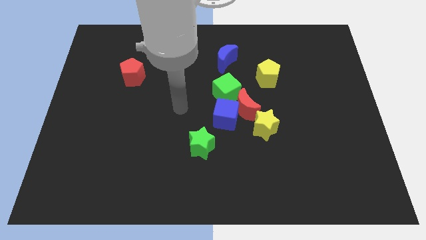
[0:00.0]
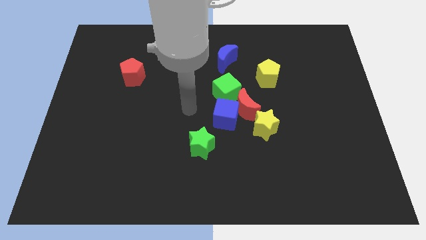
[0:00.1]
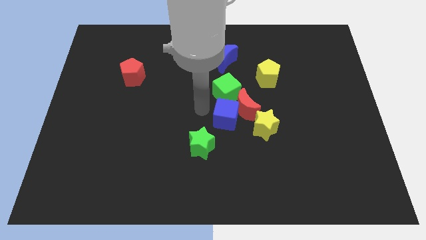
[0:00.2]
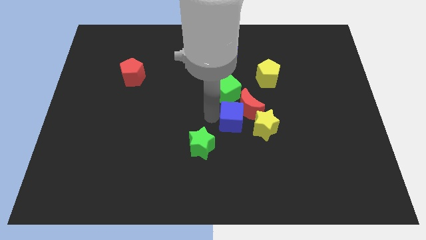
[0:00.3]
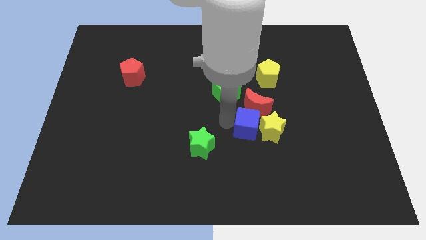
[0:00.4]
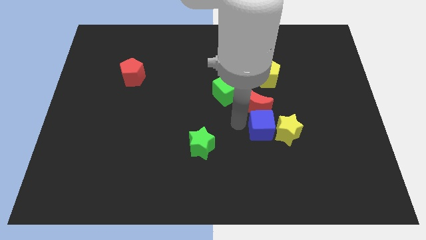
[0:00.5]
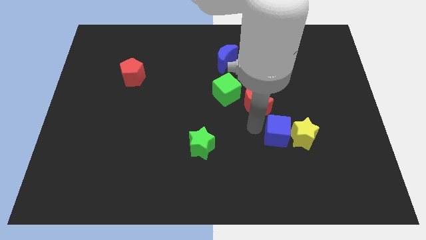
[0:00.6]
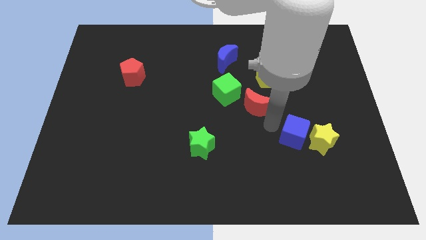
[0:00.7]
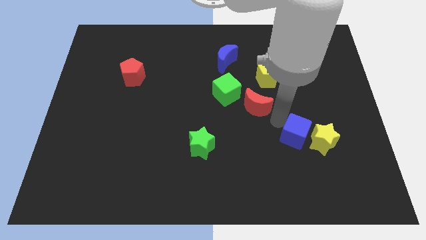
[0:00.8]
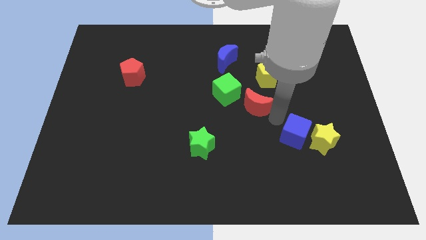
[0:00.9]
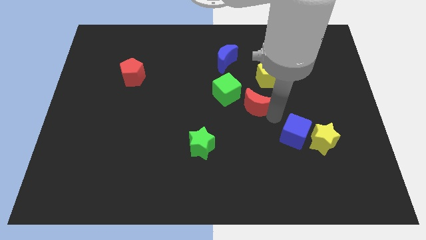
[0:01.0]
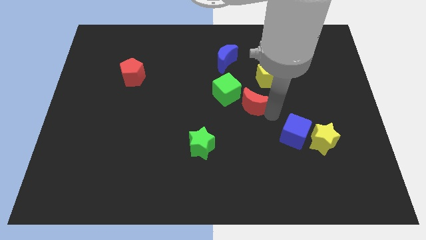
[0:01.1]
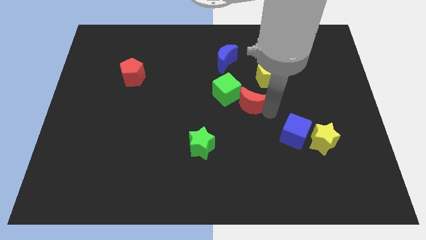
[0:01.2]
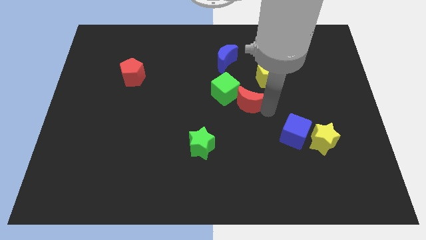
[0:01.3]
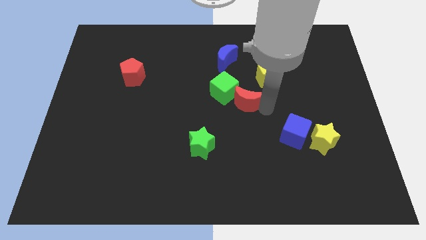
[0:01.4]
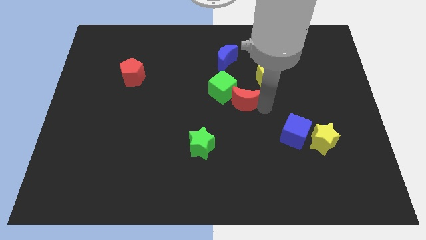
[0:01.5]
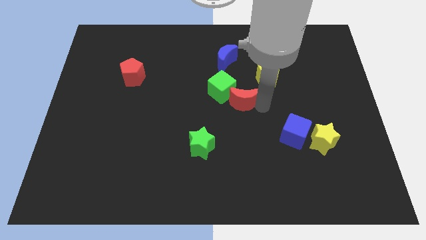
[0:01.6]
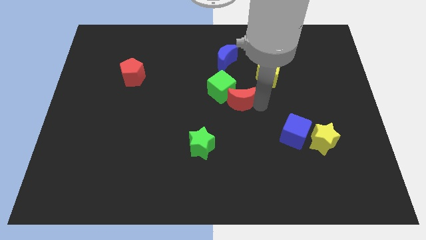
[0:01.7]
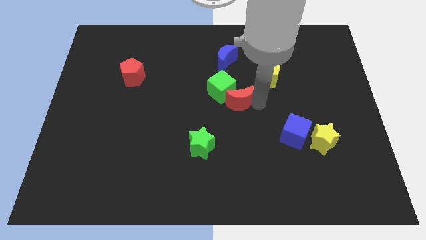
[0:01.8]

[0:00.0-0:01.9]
move the red moon away from the blue cube, green cube, and yellow star

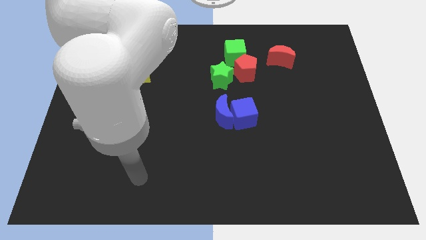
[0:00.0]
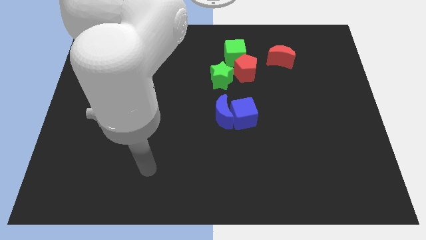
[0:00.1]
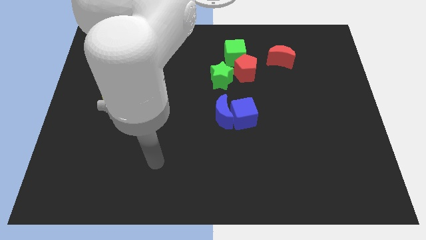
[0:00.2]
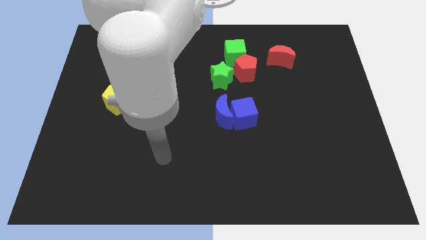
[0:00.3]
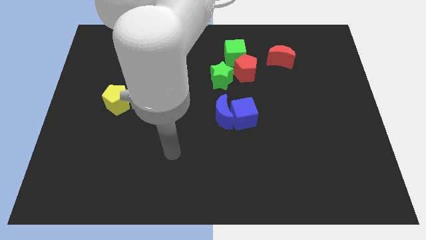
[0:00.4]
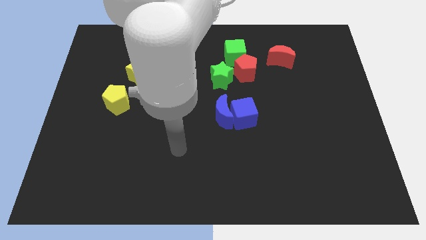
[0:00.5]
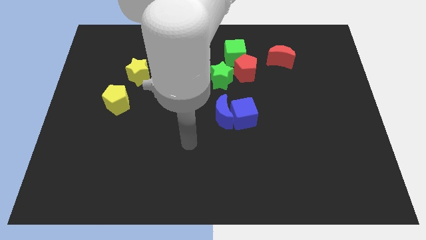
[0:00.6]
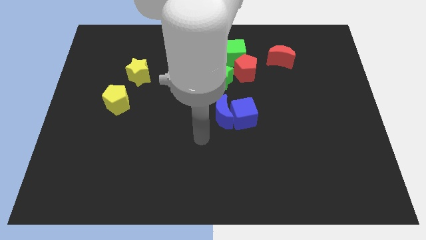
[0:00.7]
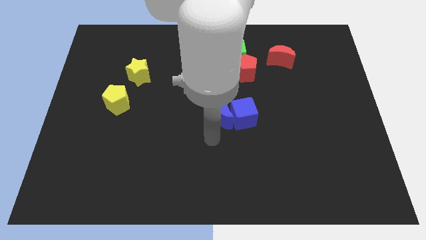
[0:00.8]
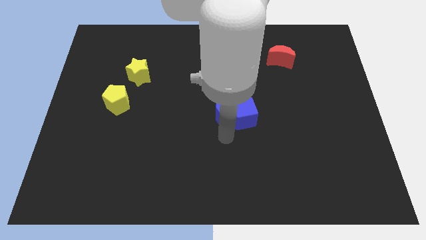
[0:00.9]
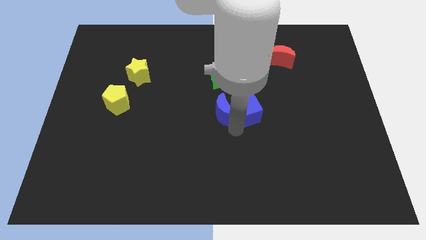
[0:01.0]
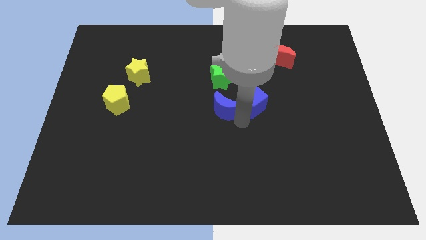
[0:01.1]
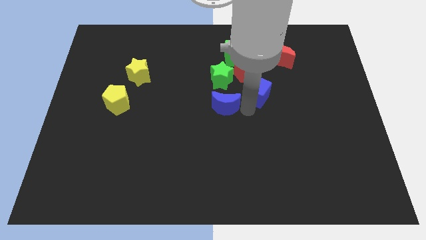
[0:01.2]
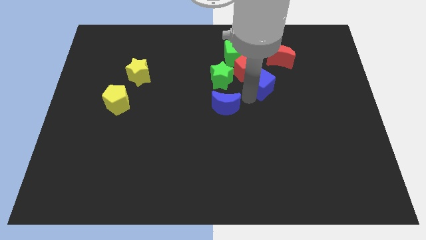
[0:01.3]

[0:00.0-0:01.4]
move the blue moon away from the blue cube

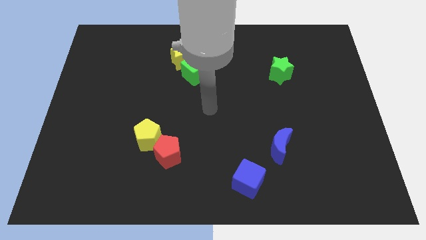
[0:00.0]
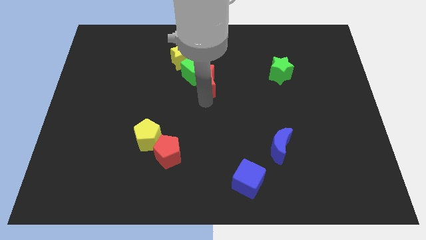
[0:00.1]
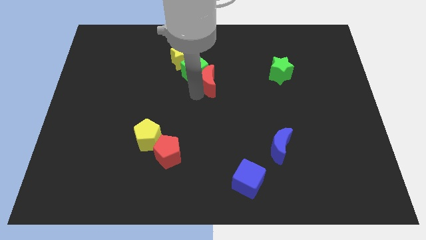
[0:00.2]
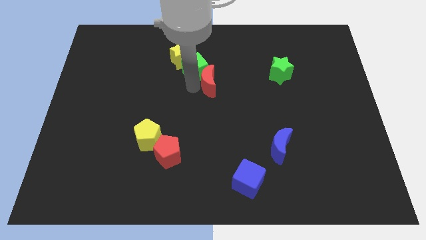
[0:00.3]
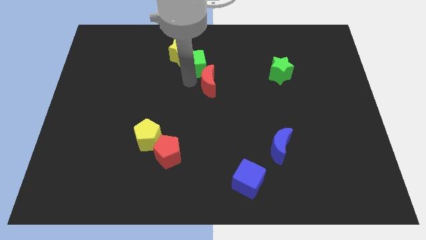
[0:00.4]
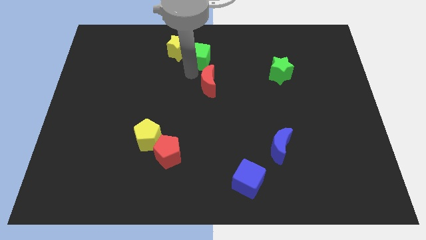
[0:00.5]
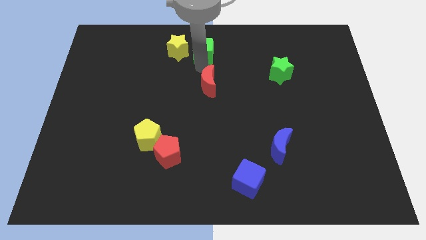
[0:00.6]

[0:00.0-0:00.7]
move the red moon away from the green cube

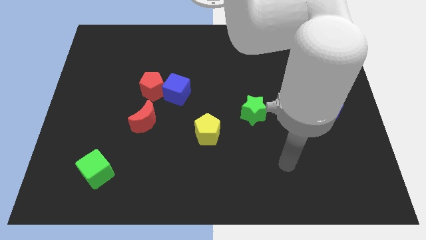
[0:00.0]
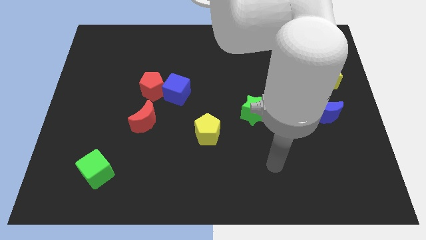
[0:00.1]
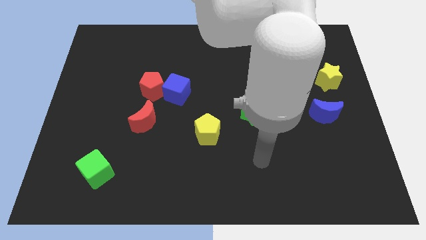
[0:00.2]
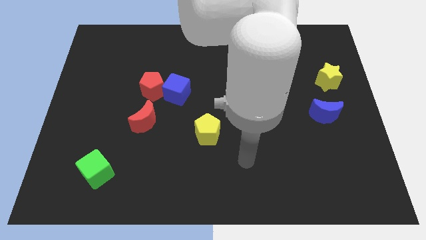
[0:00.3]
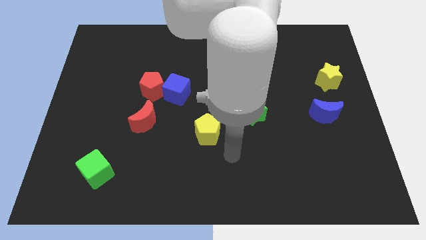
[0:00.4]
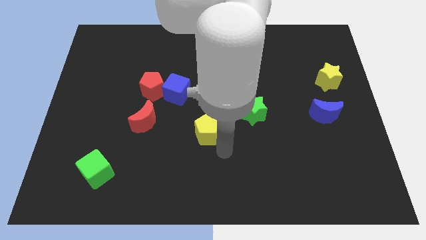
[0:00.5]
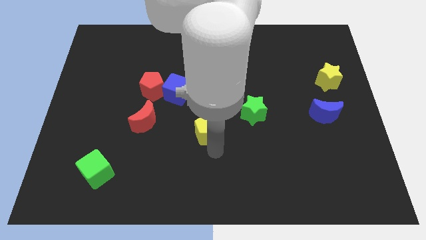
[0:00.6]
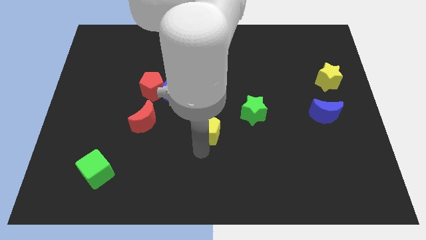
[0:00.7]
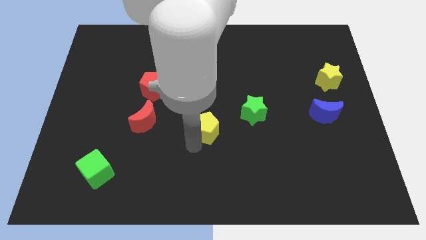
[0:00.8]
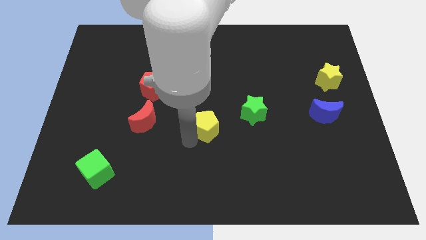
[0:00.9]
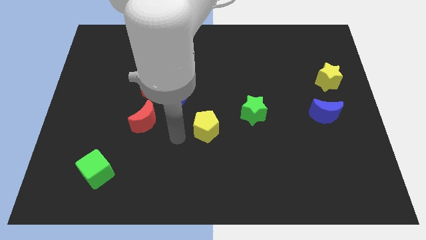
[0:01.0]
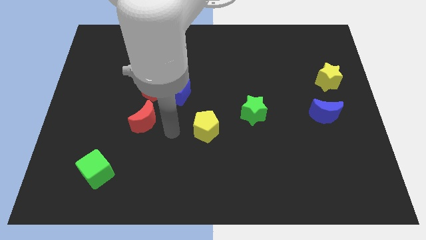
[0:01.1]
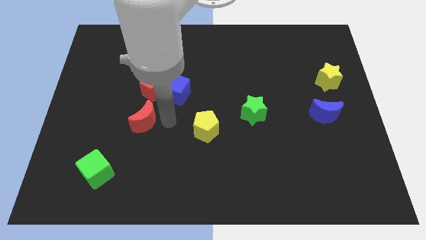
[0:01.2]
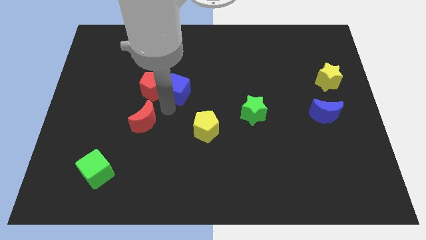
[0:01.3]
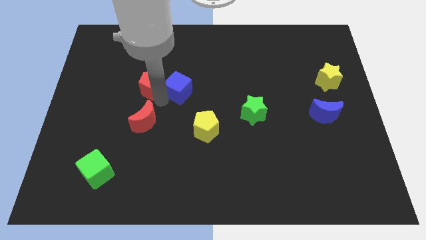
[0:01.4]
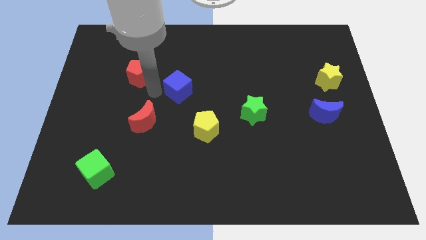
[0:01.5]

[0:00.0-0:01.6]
pull the blue cube apart from the red pentagon

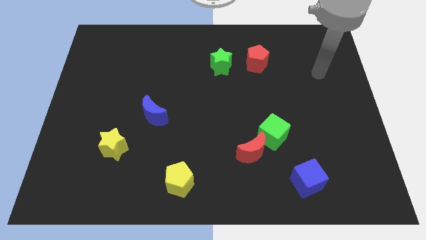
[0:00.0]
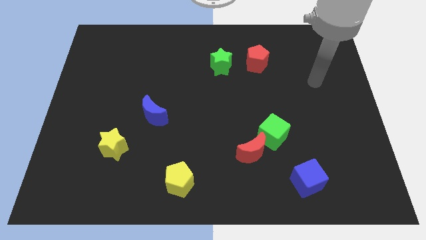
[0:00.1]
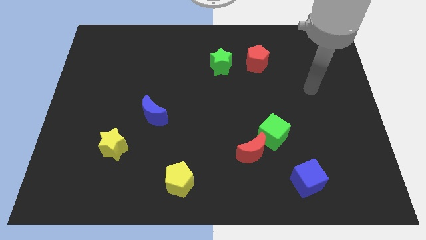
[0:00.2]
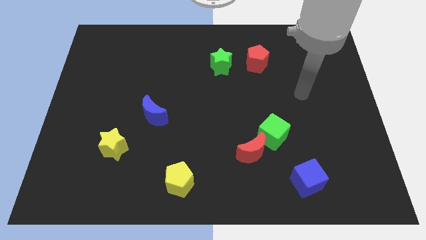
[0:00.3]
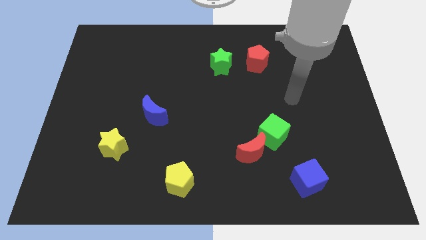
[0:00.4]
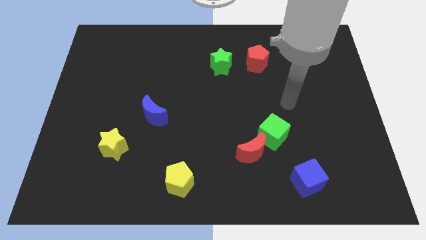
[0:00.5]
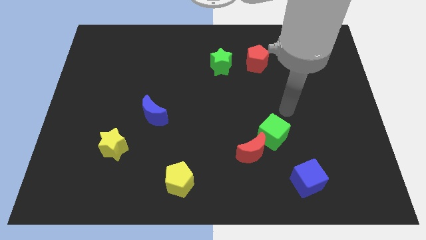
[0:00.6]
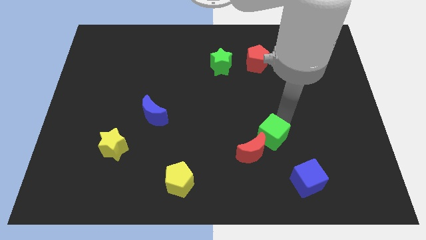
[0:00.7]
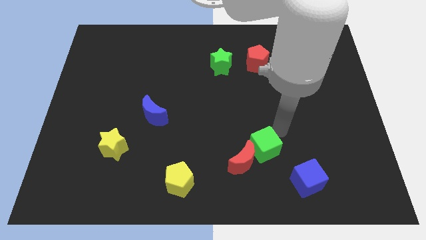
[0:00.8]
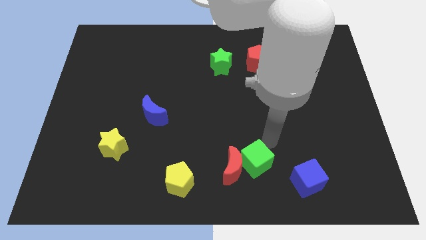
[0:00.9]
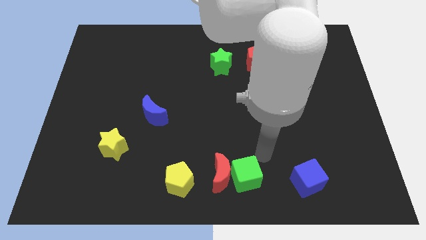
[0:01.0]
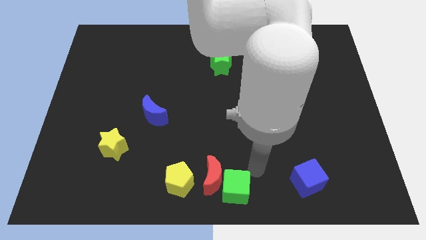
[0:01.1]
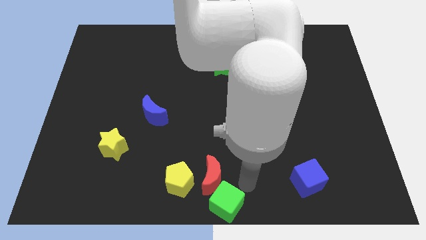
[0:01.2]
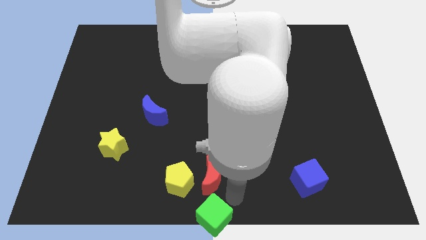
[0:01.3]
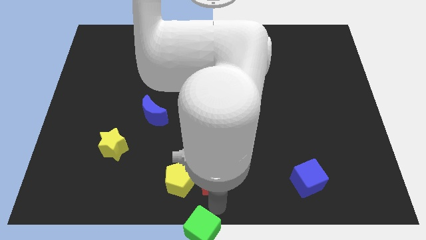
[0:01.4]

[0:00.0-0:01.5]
pull the red moon apart from the green cube

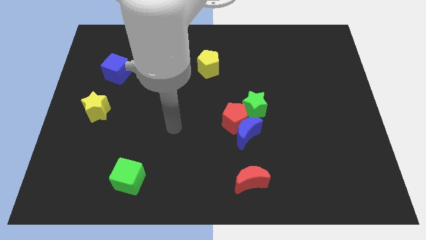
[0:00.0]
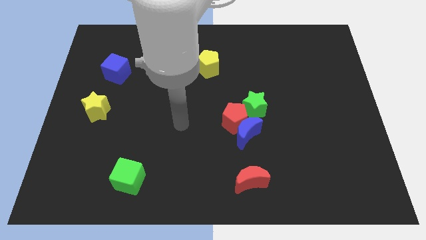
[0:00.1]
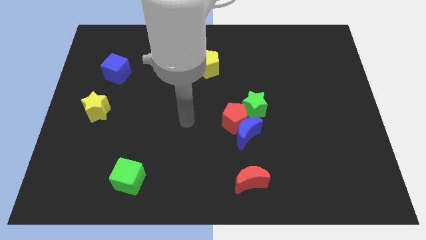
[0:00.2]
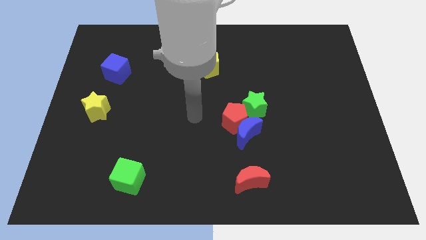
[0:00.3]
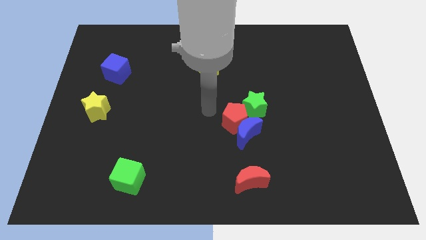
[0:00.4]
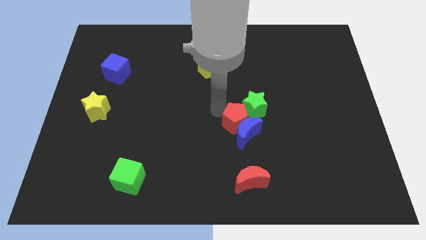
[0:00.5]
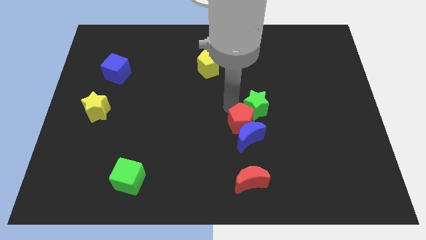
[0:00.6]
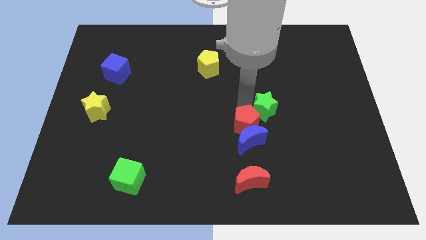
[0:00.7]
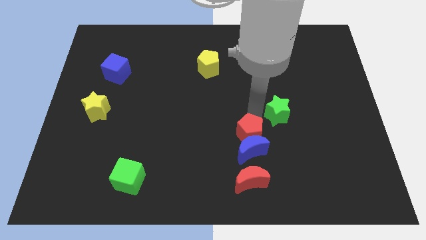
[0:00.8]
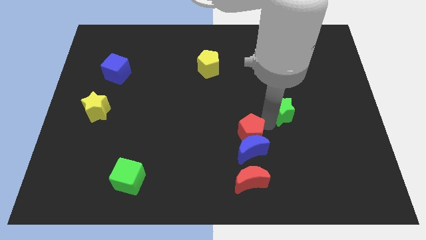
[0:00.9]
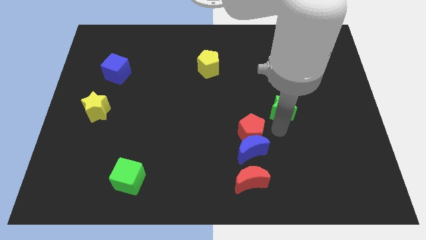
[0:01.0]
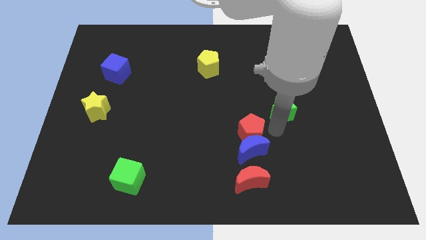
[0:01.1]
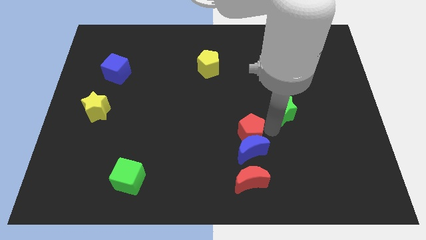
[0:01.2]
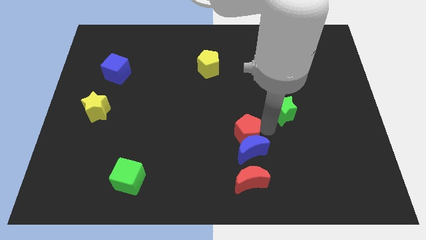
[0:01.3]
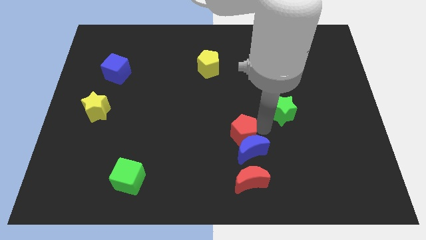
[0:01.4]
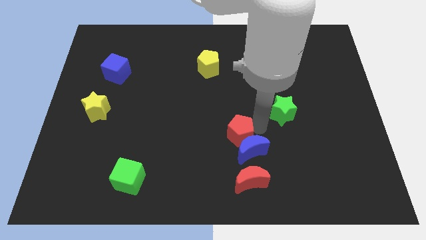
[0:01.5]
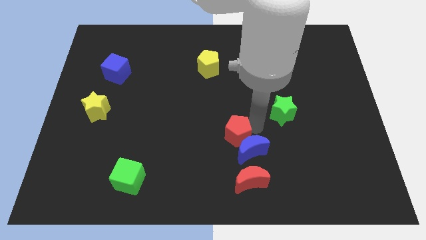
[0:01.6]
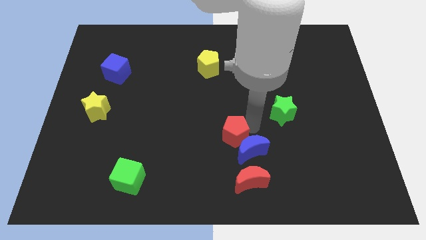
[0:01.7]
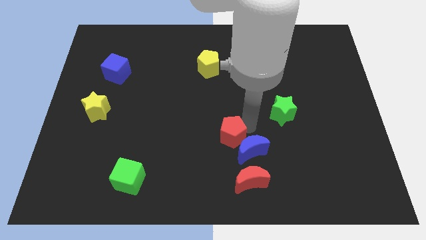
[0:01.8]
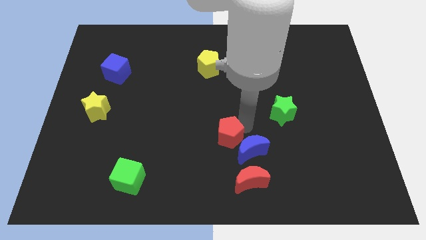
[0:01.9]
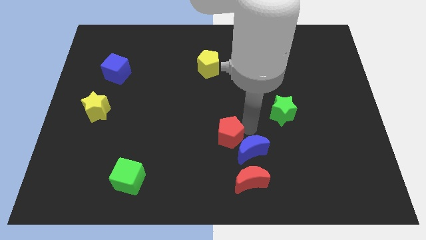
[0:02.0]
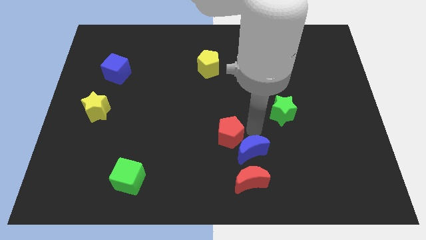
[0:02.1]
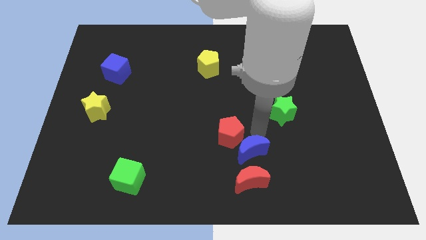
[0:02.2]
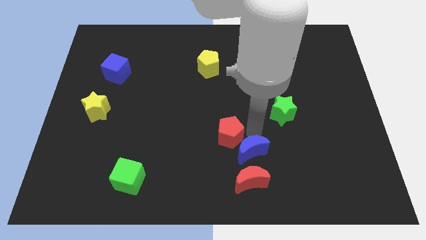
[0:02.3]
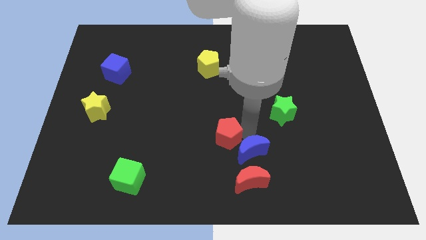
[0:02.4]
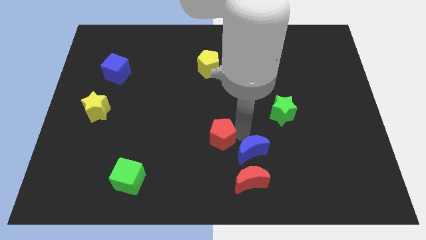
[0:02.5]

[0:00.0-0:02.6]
move the red pentagon away from the blue moon and green star
